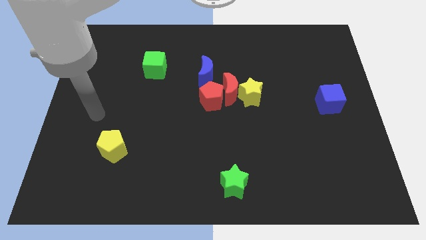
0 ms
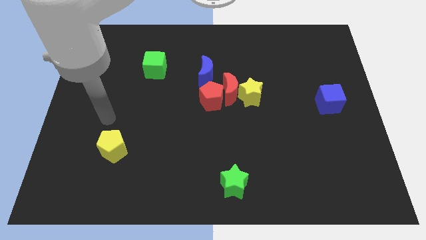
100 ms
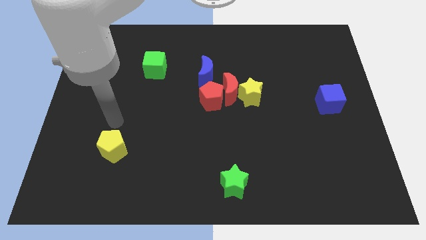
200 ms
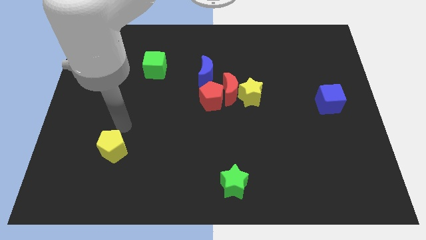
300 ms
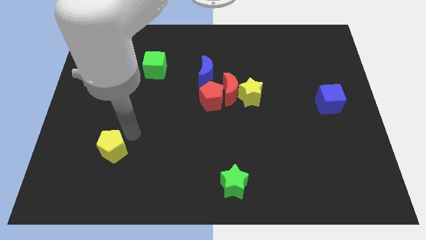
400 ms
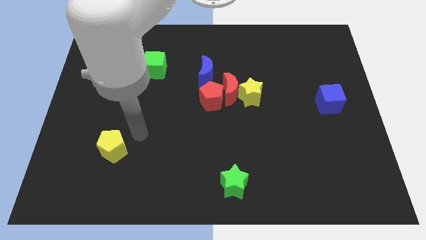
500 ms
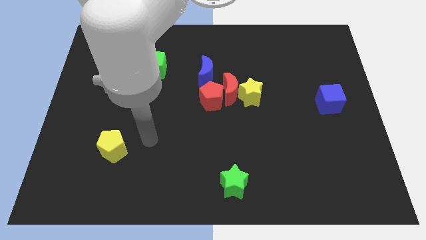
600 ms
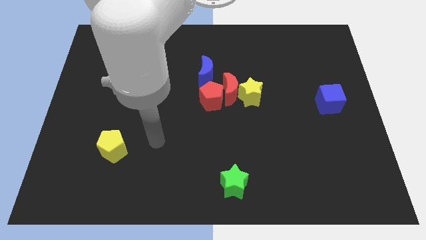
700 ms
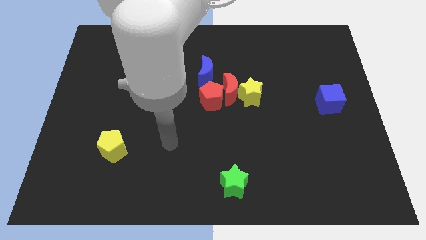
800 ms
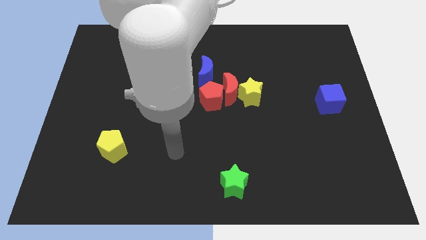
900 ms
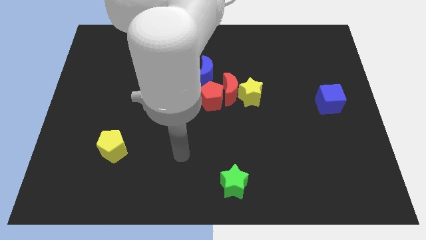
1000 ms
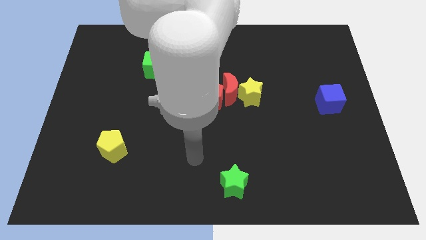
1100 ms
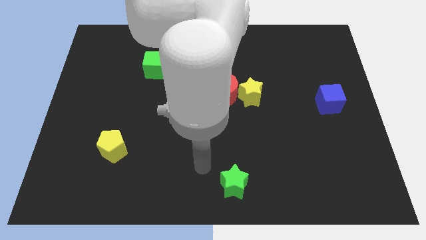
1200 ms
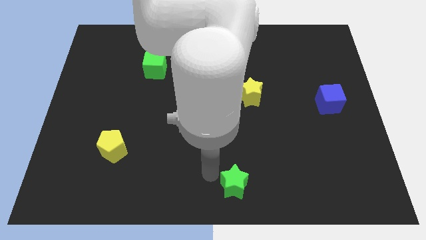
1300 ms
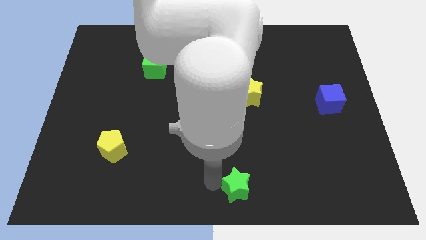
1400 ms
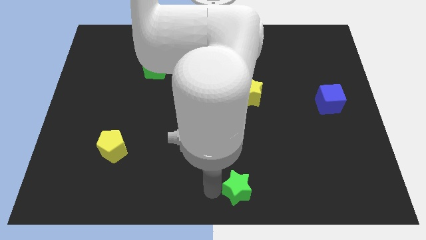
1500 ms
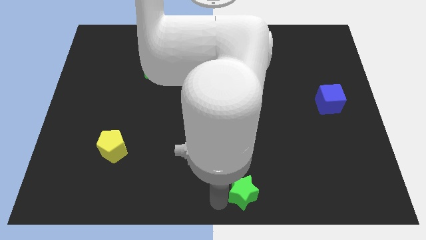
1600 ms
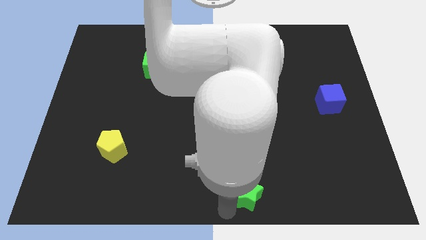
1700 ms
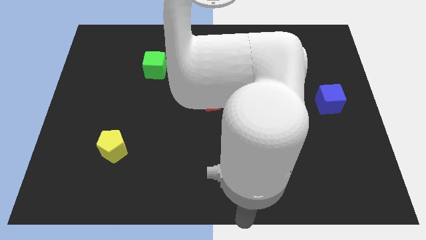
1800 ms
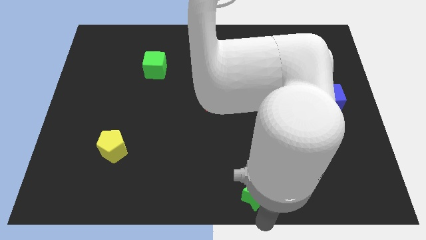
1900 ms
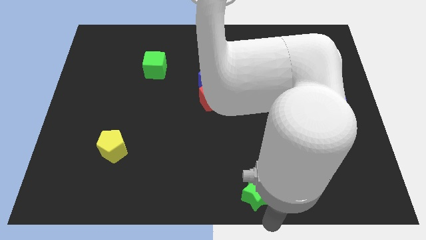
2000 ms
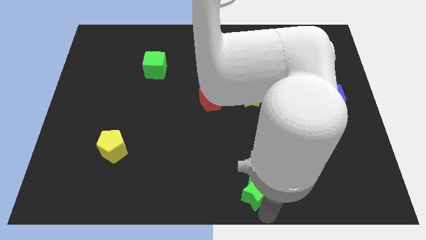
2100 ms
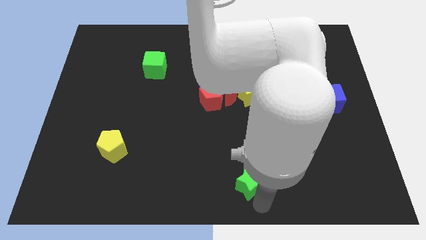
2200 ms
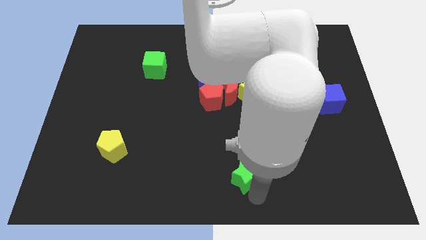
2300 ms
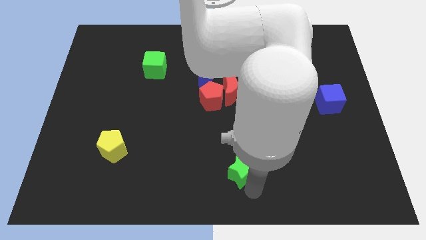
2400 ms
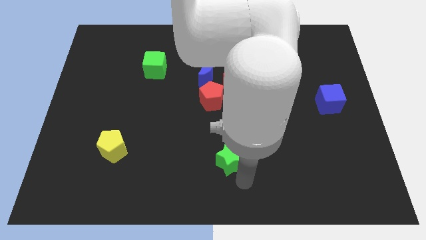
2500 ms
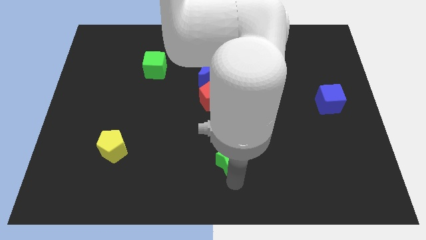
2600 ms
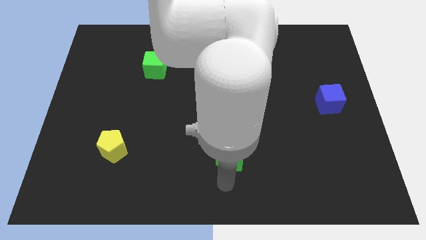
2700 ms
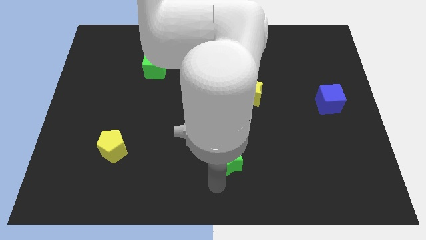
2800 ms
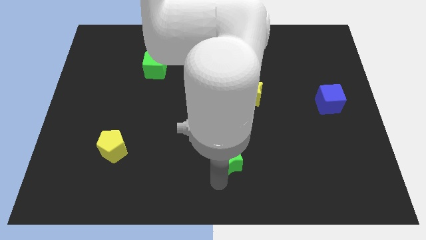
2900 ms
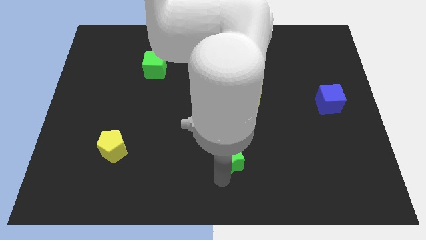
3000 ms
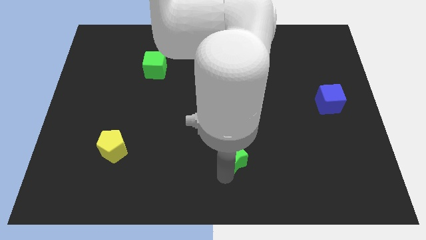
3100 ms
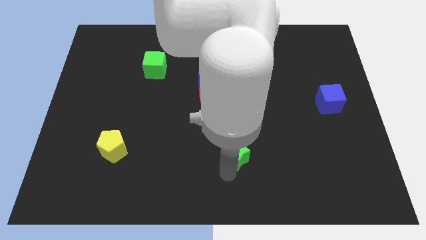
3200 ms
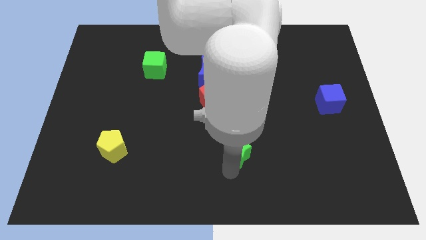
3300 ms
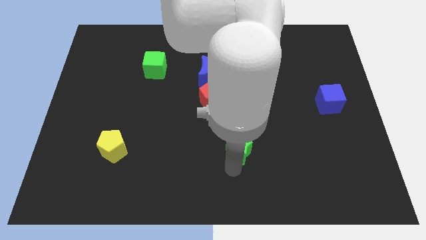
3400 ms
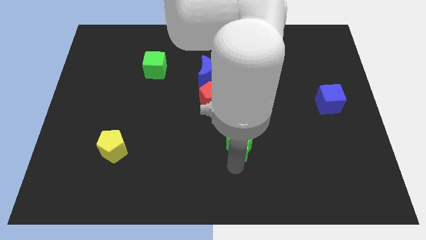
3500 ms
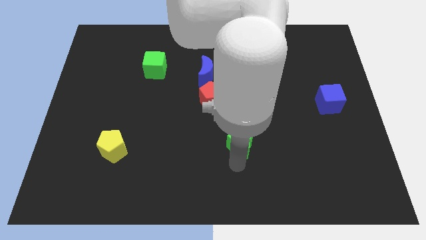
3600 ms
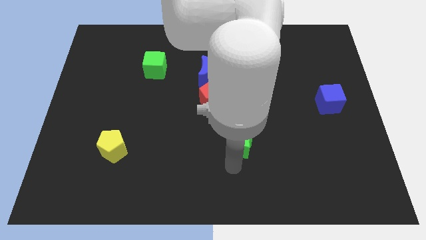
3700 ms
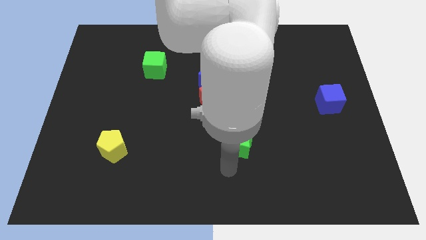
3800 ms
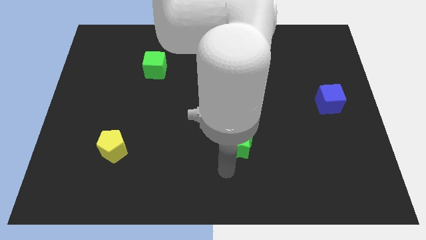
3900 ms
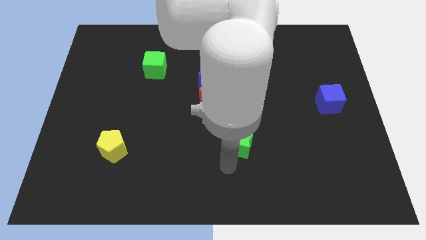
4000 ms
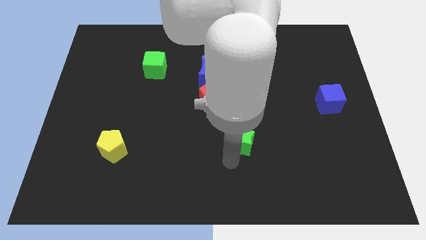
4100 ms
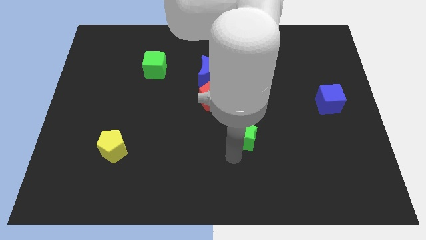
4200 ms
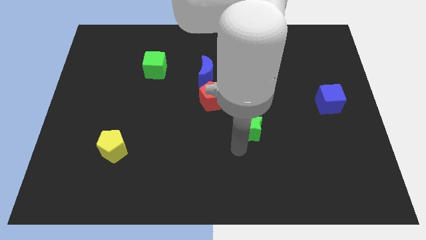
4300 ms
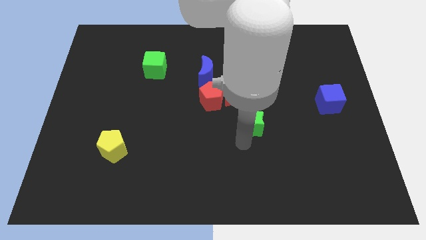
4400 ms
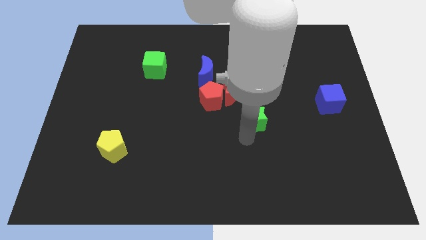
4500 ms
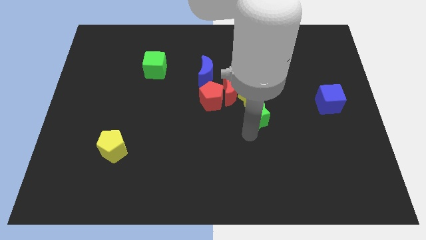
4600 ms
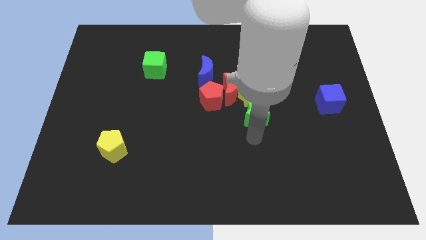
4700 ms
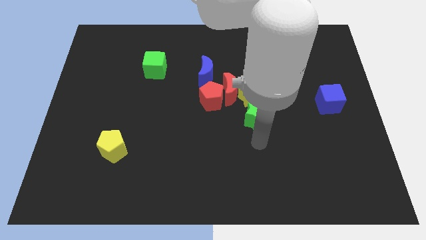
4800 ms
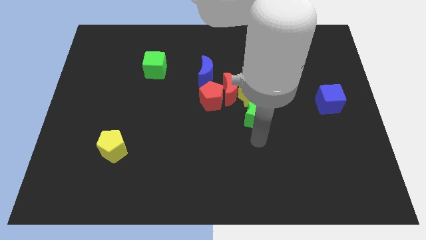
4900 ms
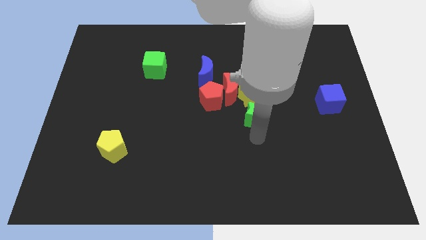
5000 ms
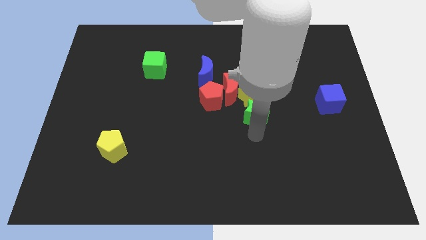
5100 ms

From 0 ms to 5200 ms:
move the green star to the yellow star

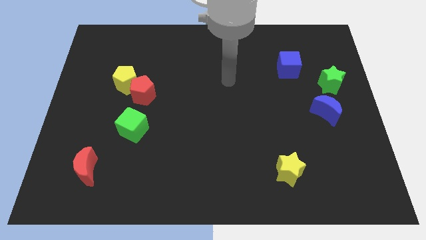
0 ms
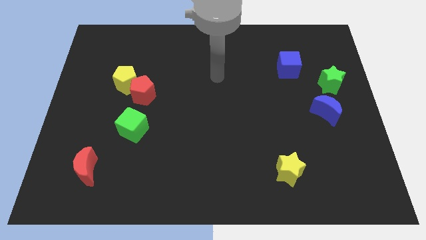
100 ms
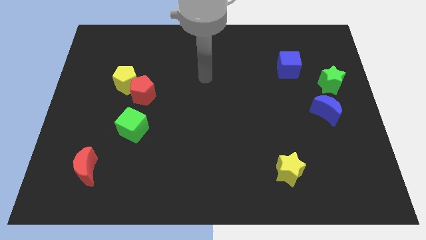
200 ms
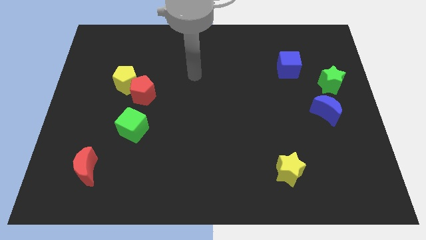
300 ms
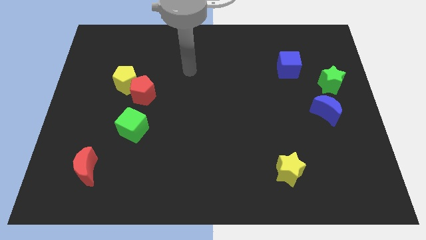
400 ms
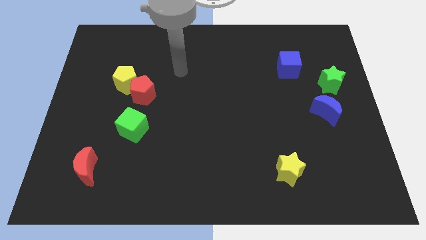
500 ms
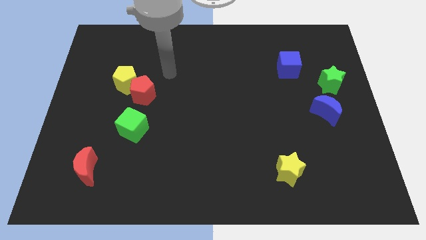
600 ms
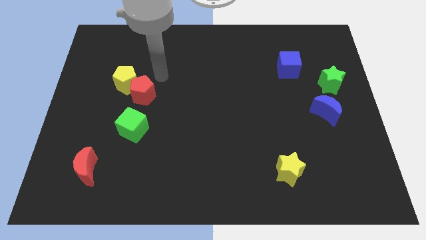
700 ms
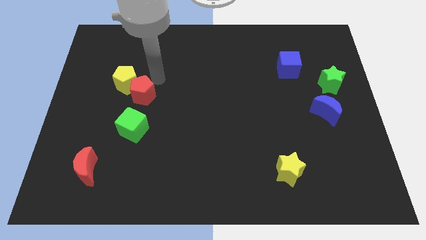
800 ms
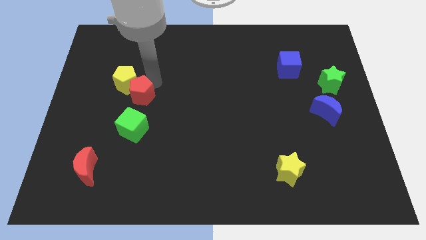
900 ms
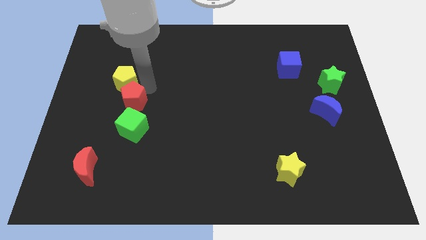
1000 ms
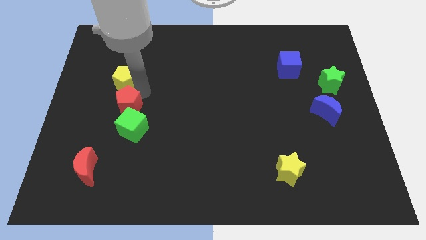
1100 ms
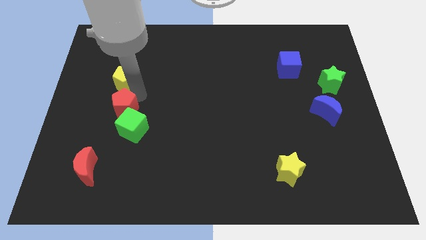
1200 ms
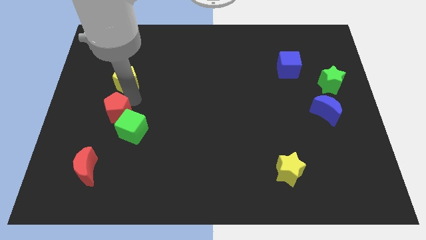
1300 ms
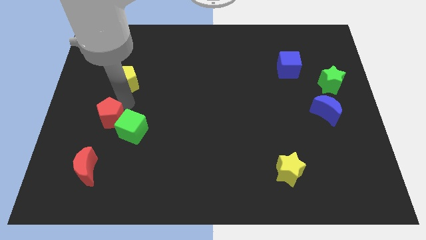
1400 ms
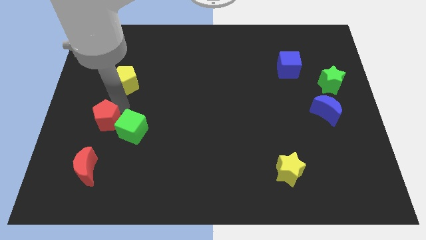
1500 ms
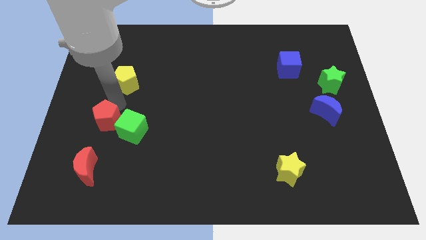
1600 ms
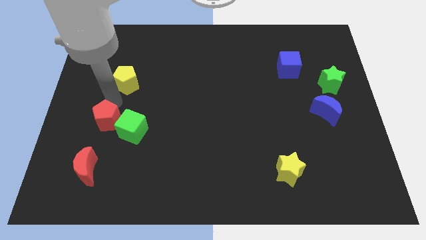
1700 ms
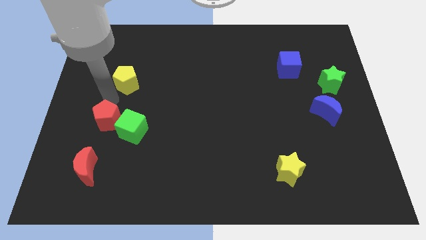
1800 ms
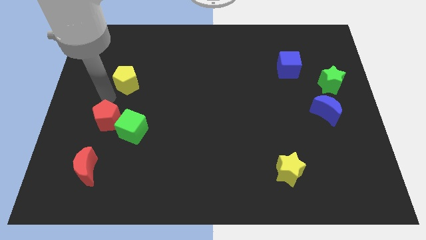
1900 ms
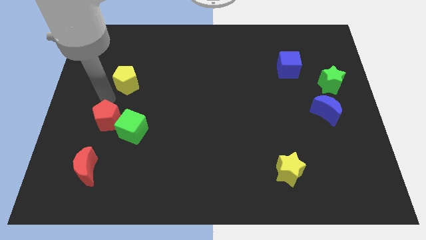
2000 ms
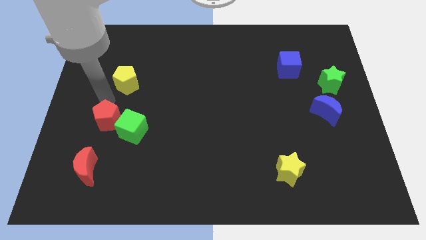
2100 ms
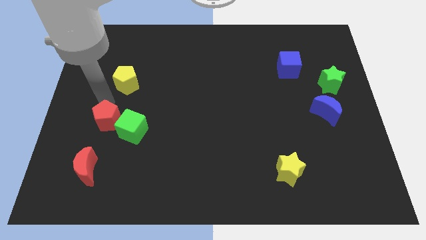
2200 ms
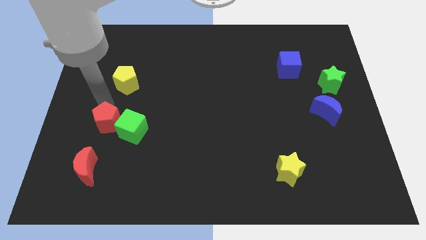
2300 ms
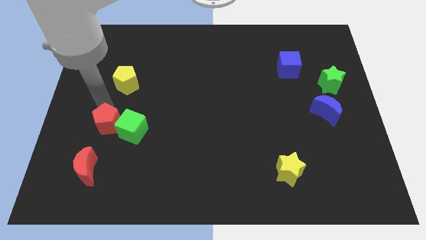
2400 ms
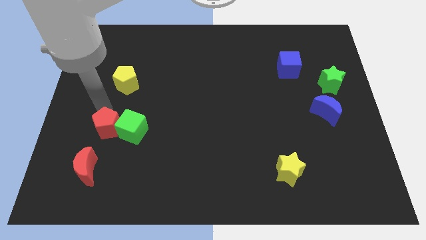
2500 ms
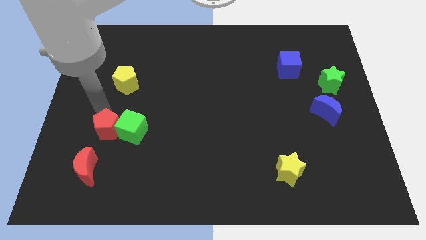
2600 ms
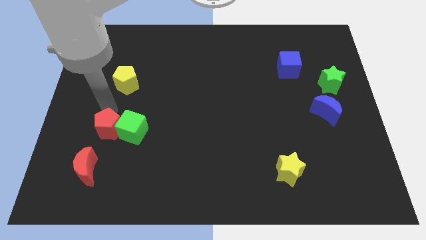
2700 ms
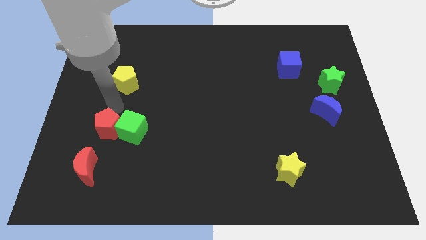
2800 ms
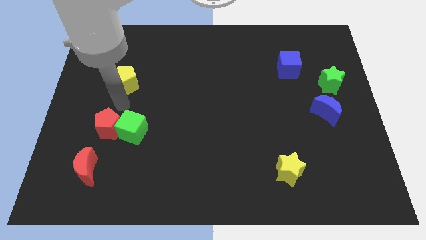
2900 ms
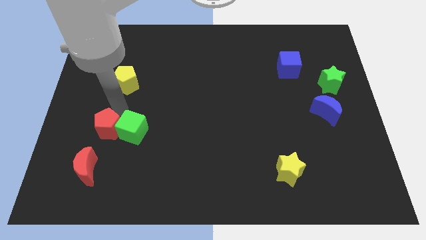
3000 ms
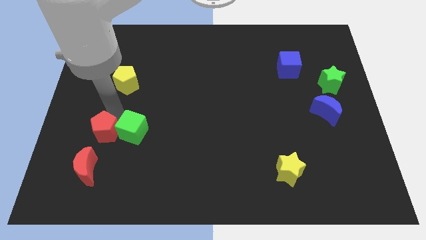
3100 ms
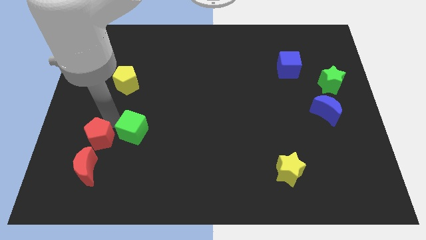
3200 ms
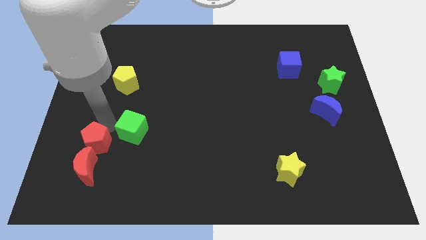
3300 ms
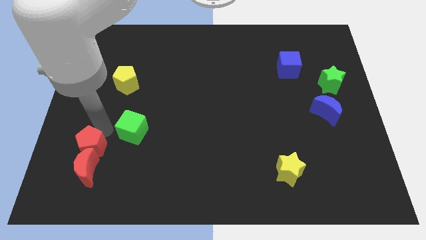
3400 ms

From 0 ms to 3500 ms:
slide the red pentagon close to the red moon
